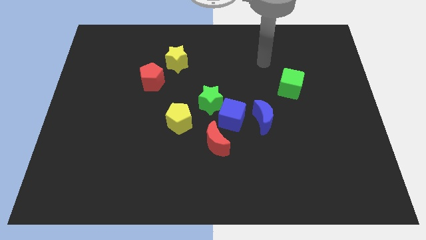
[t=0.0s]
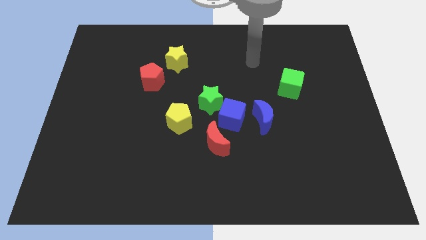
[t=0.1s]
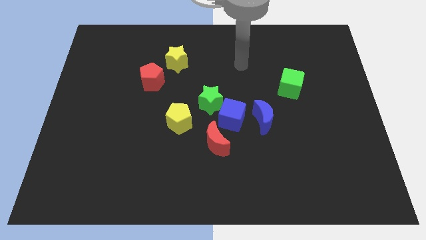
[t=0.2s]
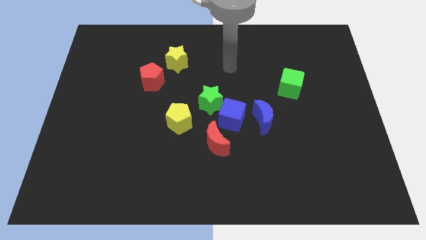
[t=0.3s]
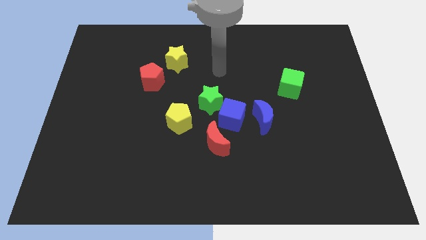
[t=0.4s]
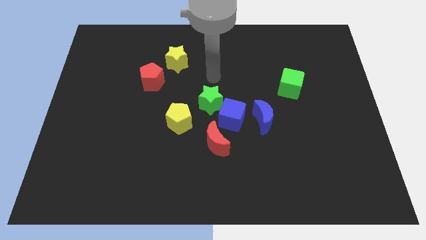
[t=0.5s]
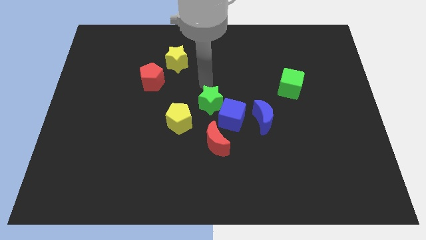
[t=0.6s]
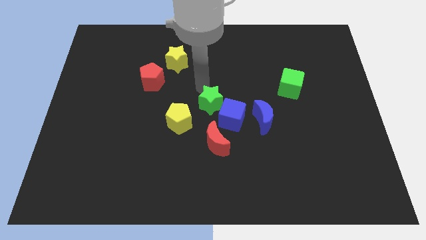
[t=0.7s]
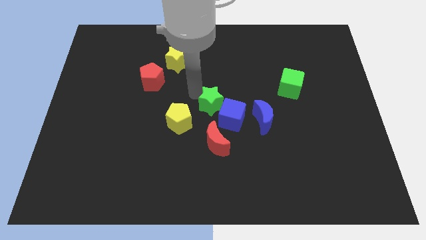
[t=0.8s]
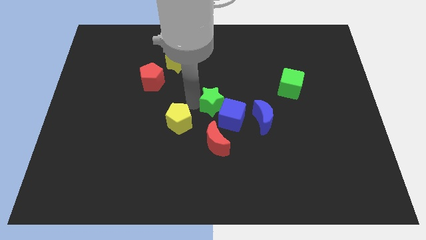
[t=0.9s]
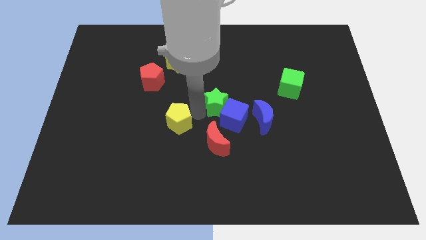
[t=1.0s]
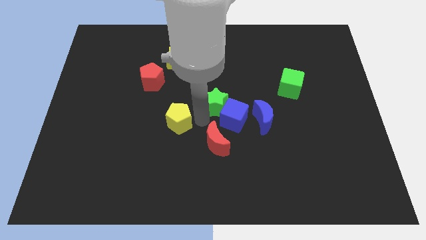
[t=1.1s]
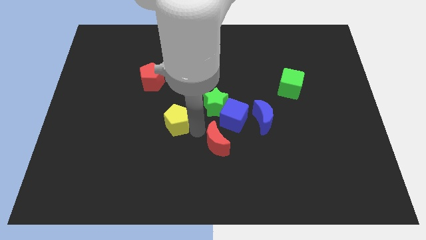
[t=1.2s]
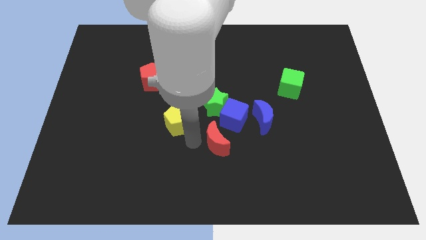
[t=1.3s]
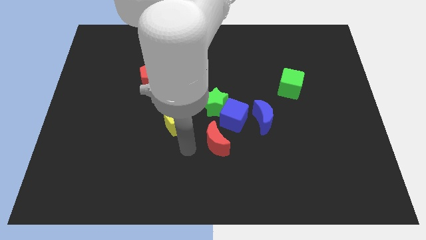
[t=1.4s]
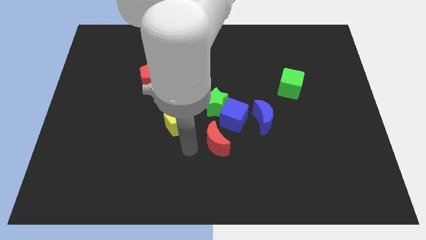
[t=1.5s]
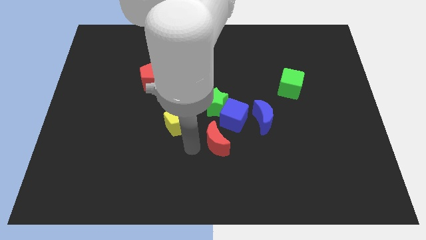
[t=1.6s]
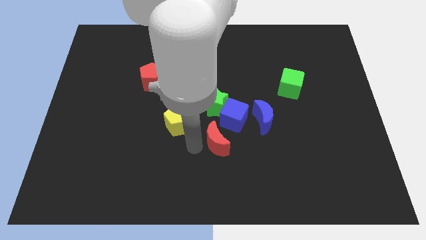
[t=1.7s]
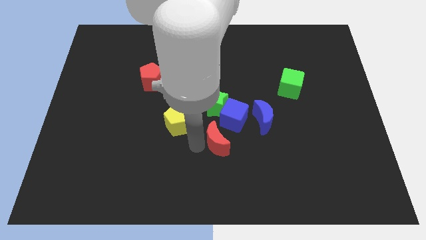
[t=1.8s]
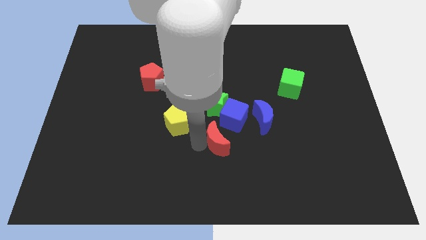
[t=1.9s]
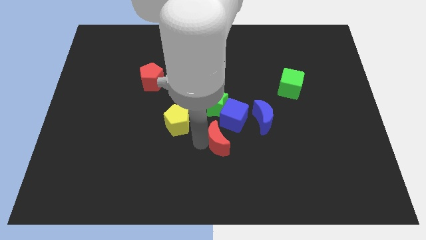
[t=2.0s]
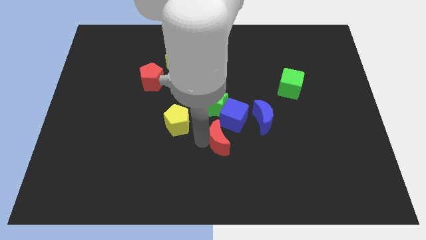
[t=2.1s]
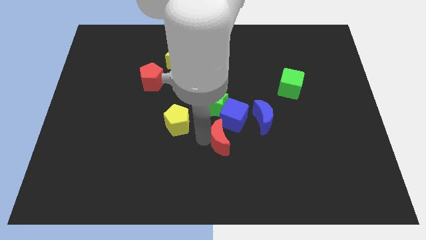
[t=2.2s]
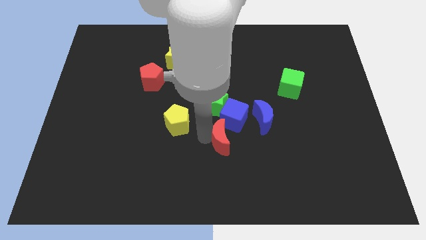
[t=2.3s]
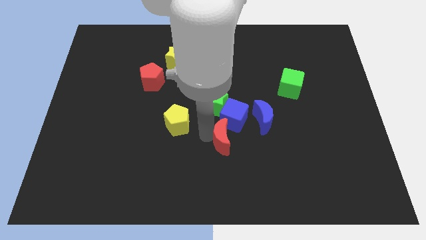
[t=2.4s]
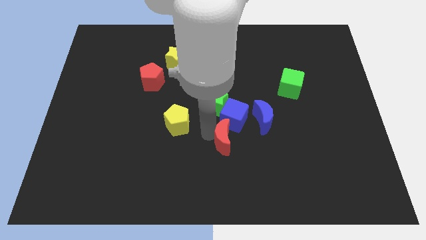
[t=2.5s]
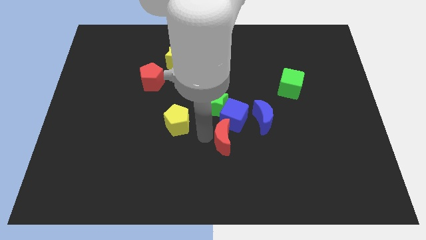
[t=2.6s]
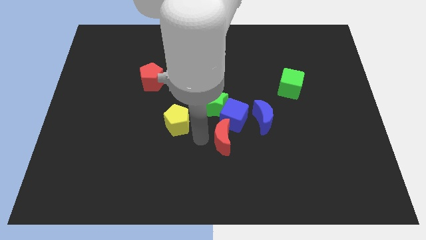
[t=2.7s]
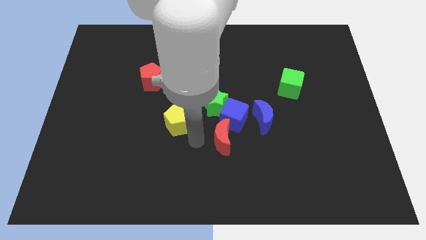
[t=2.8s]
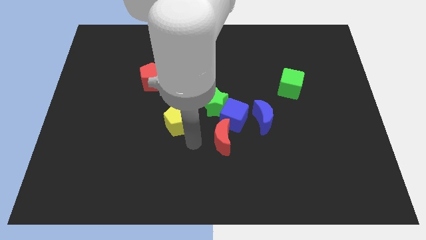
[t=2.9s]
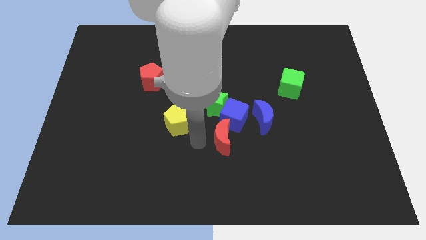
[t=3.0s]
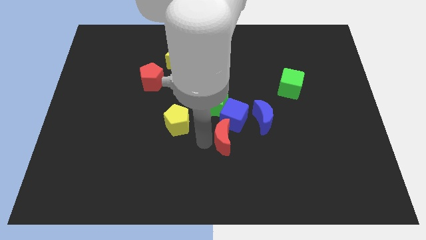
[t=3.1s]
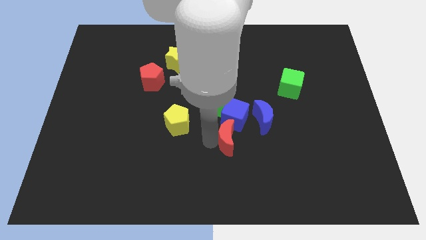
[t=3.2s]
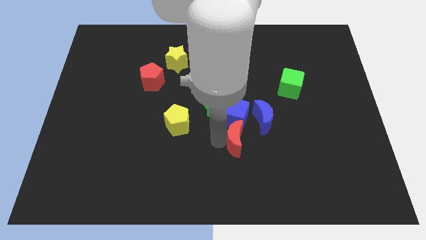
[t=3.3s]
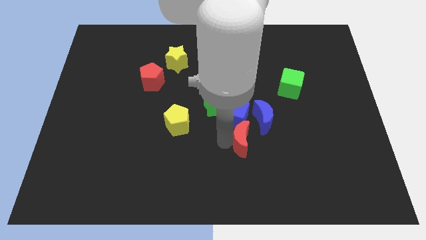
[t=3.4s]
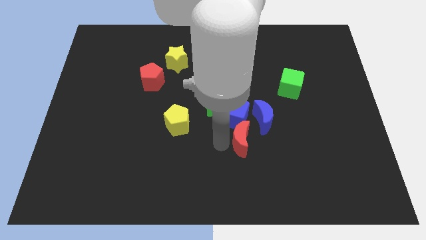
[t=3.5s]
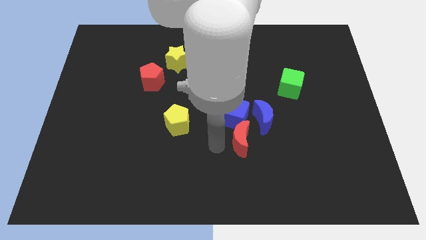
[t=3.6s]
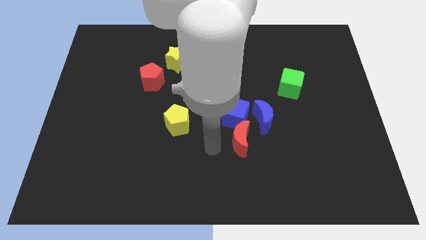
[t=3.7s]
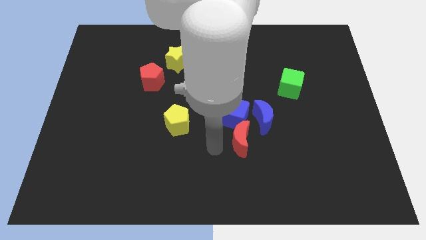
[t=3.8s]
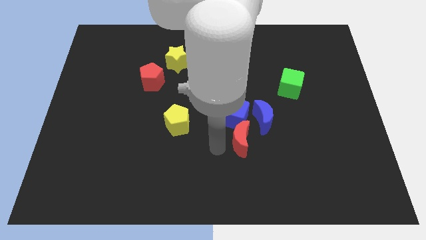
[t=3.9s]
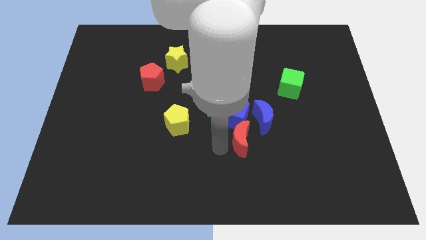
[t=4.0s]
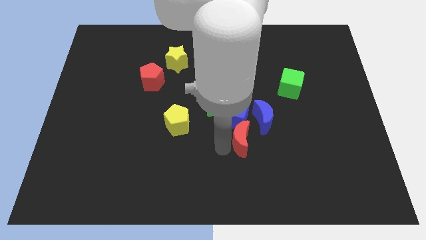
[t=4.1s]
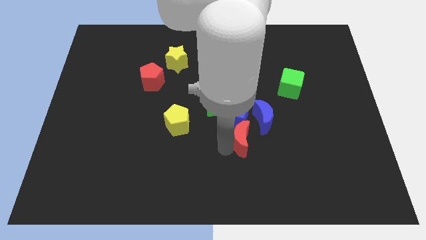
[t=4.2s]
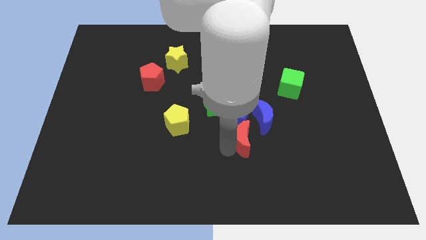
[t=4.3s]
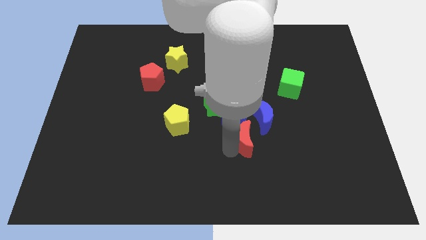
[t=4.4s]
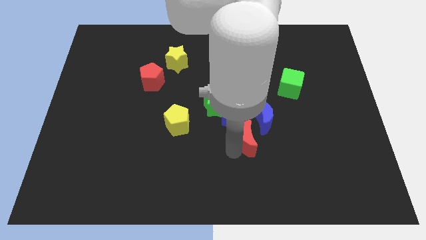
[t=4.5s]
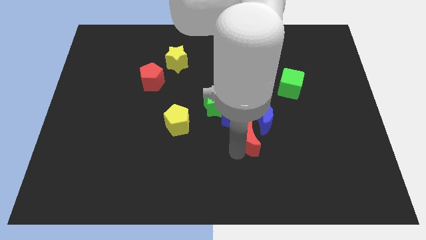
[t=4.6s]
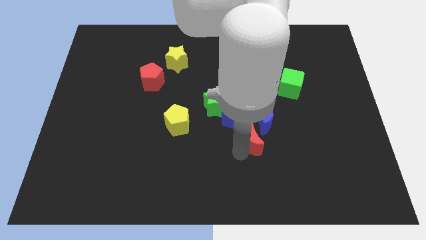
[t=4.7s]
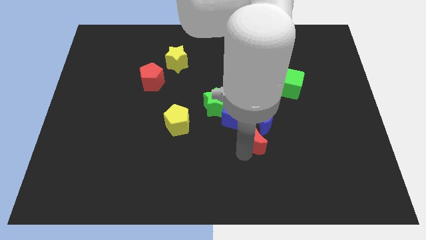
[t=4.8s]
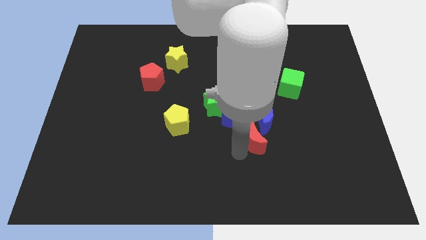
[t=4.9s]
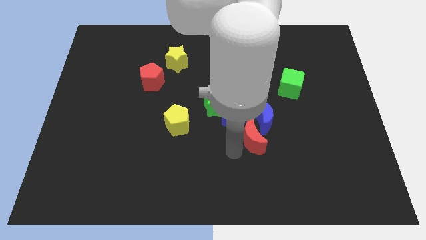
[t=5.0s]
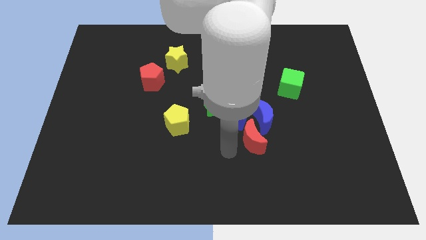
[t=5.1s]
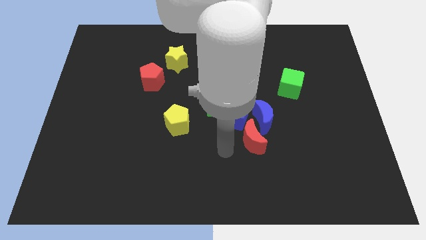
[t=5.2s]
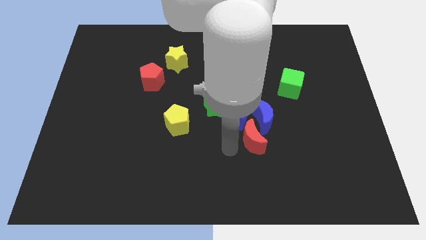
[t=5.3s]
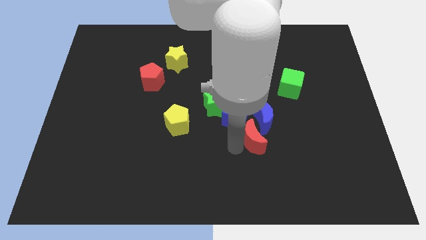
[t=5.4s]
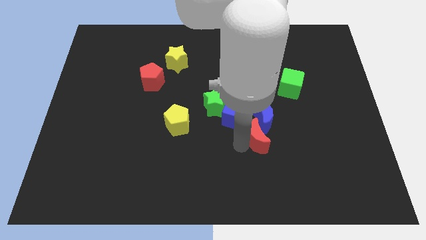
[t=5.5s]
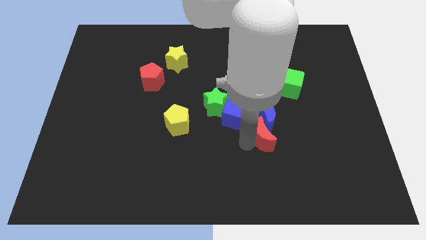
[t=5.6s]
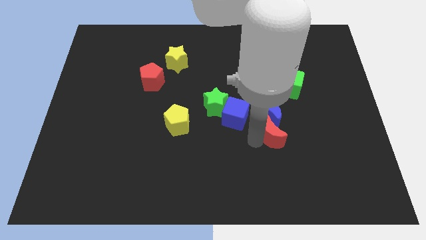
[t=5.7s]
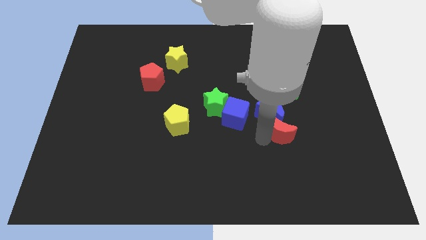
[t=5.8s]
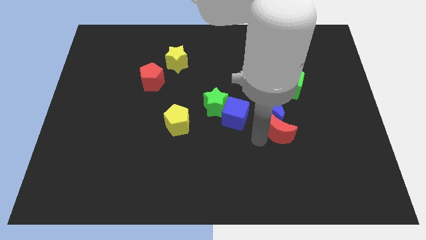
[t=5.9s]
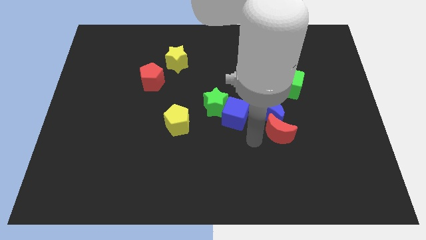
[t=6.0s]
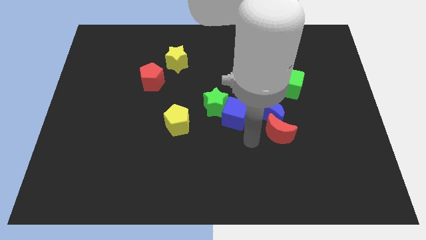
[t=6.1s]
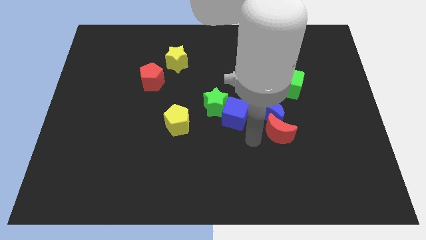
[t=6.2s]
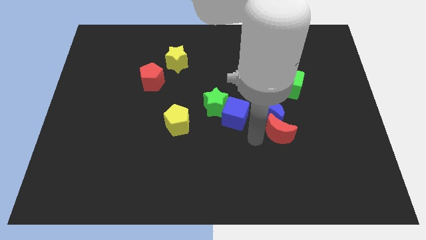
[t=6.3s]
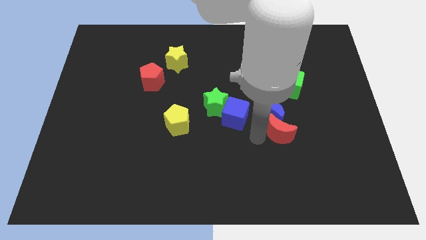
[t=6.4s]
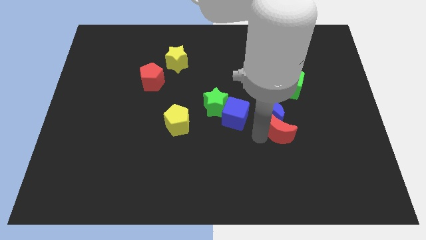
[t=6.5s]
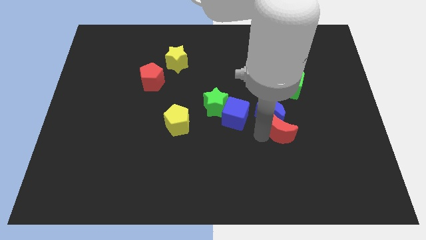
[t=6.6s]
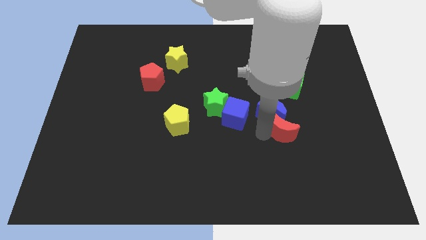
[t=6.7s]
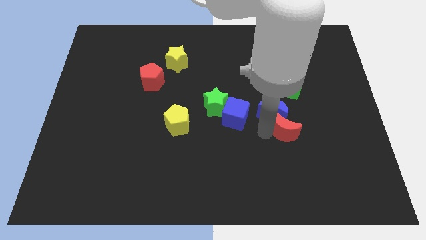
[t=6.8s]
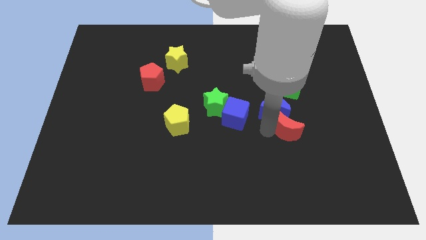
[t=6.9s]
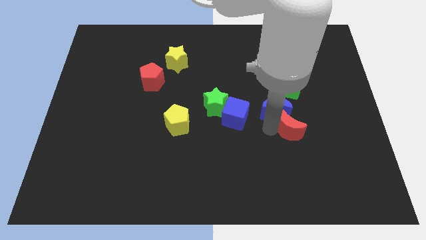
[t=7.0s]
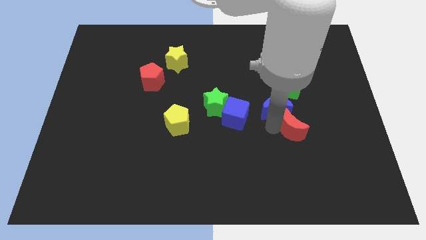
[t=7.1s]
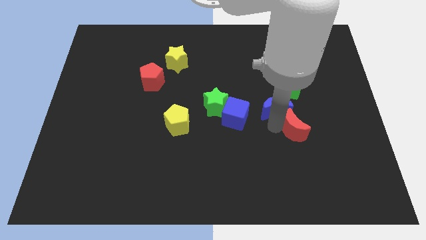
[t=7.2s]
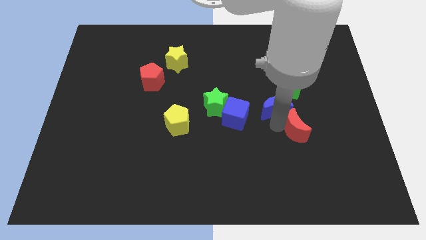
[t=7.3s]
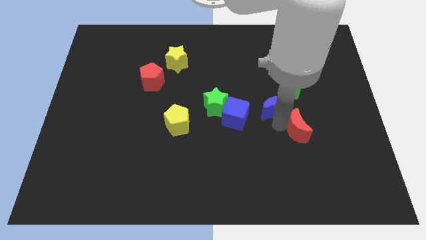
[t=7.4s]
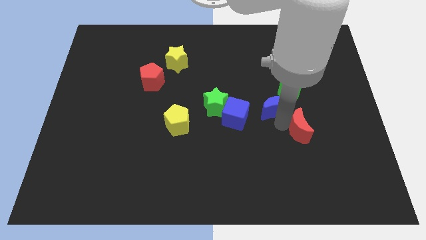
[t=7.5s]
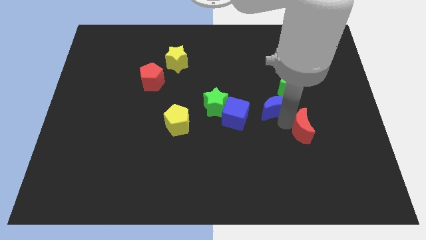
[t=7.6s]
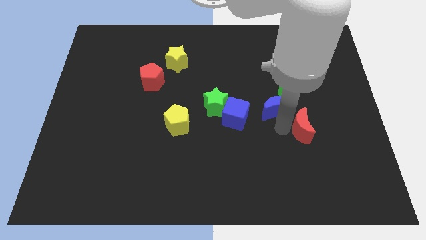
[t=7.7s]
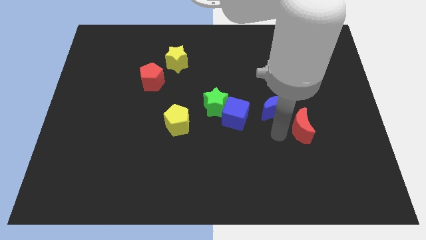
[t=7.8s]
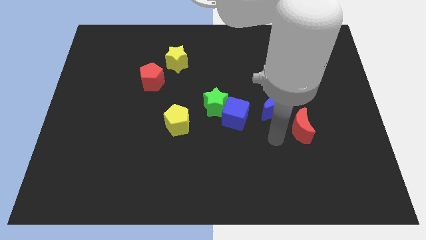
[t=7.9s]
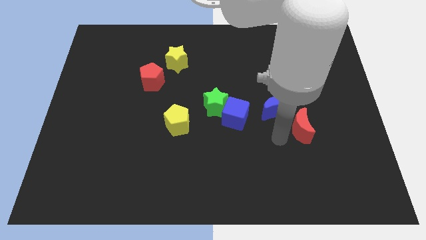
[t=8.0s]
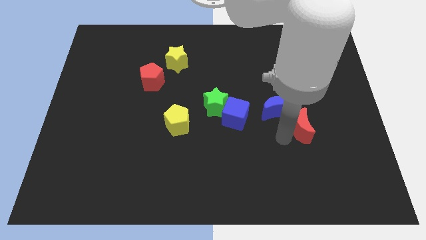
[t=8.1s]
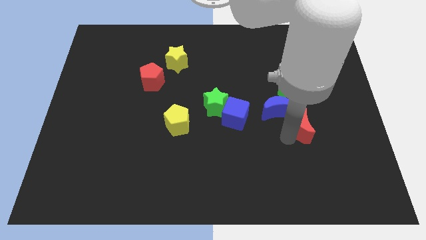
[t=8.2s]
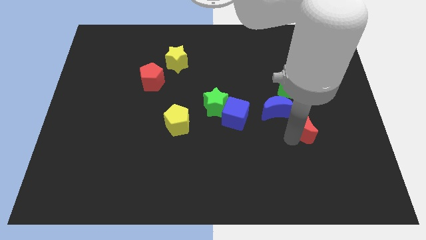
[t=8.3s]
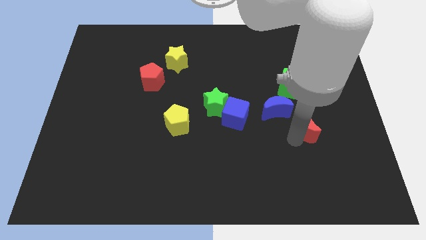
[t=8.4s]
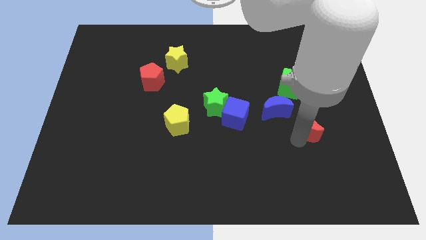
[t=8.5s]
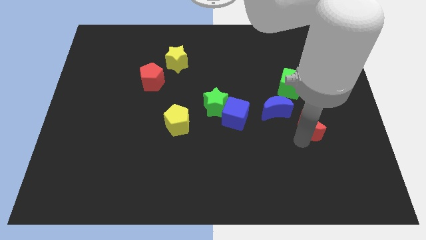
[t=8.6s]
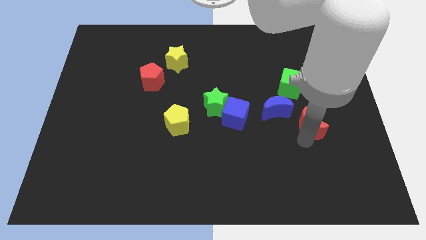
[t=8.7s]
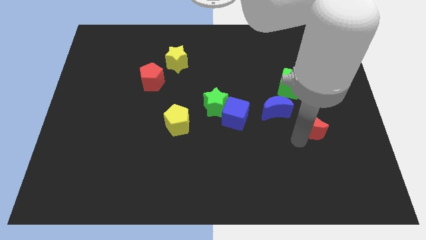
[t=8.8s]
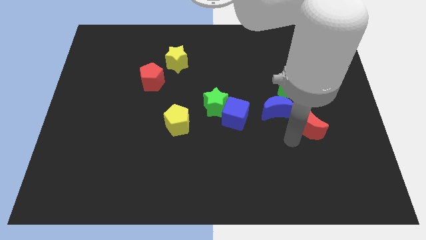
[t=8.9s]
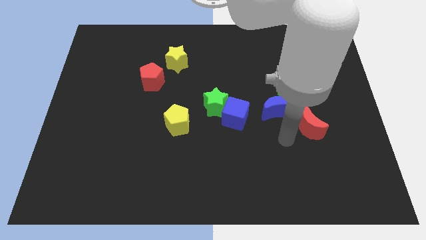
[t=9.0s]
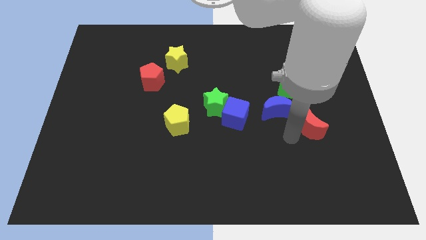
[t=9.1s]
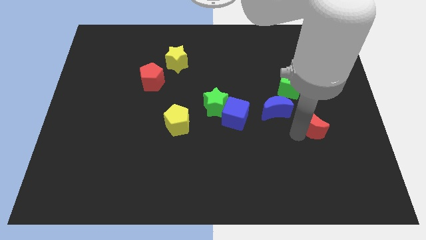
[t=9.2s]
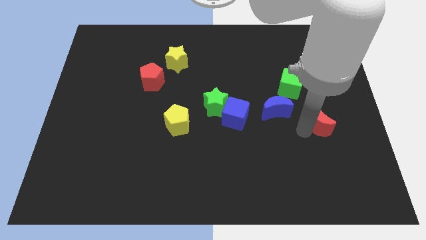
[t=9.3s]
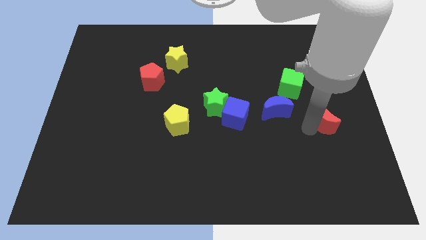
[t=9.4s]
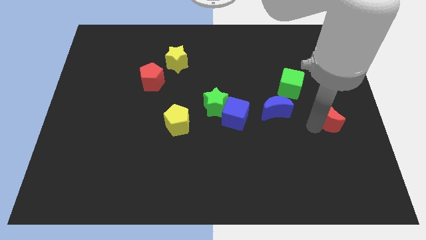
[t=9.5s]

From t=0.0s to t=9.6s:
put the red moon to the center right
